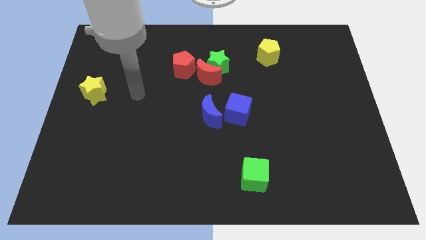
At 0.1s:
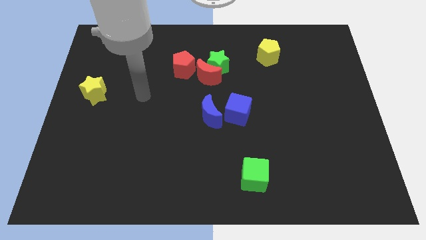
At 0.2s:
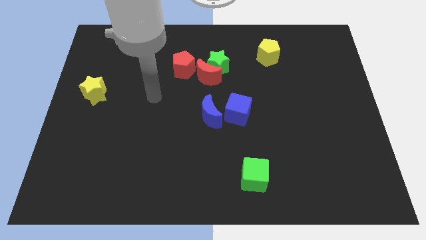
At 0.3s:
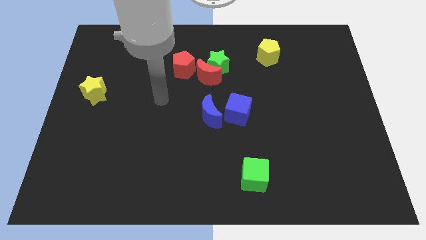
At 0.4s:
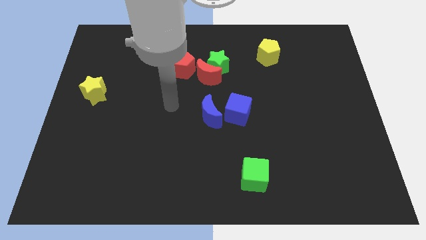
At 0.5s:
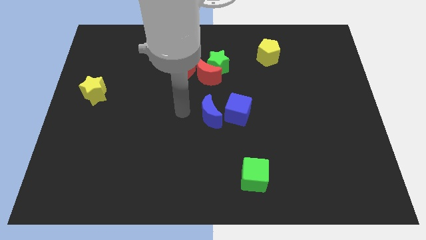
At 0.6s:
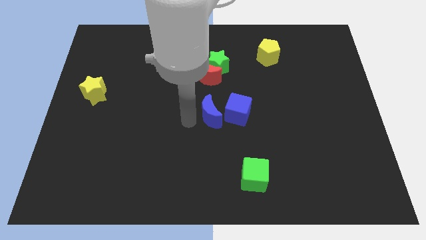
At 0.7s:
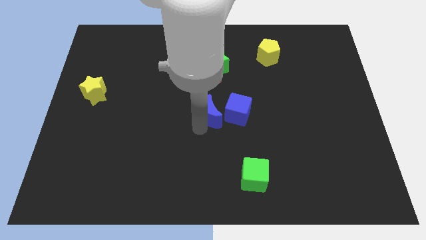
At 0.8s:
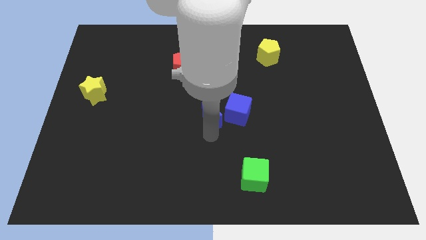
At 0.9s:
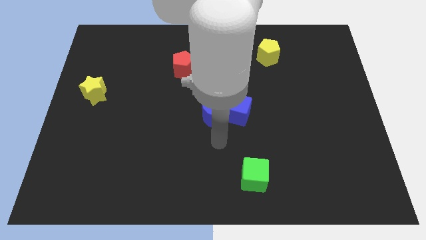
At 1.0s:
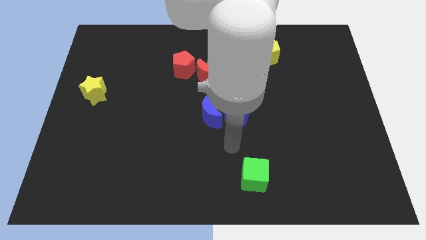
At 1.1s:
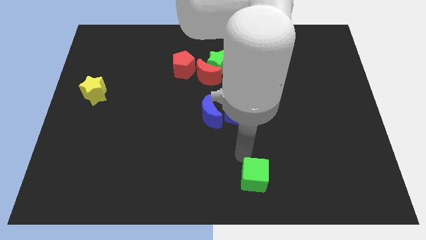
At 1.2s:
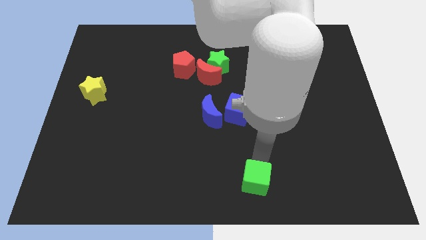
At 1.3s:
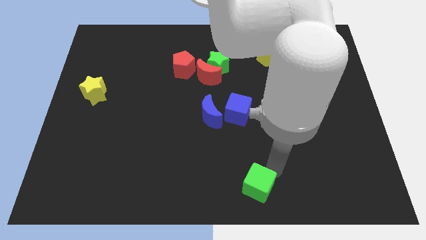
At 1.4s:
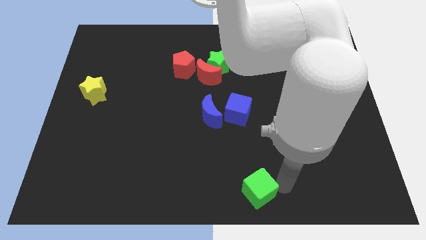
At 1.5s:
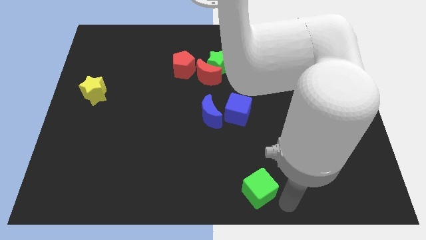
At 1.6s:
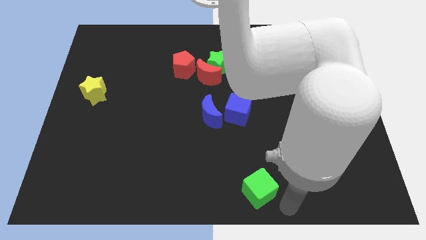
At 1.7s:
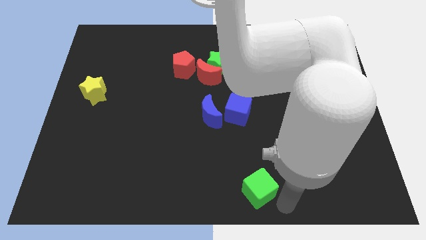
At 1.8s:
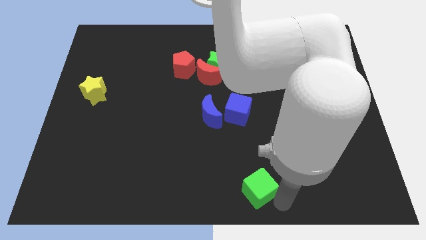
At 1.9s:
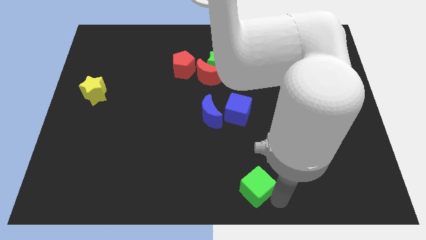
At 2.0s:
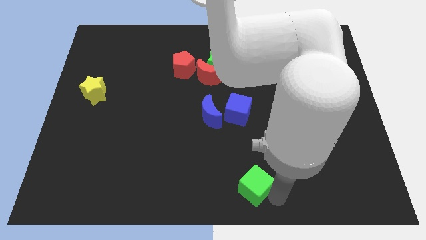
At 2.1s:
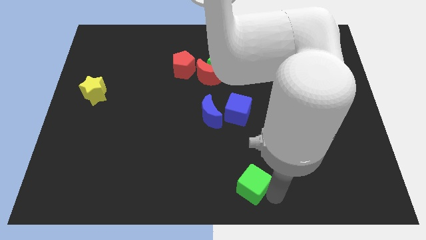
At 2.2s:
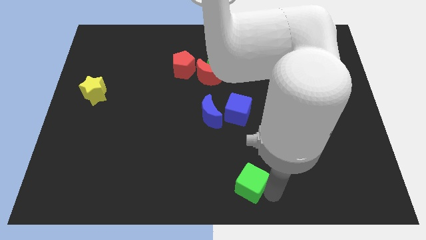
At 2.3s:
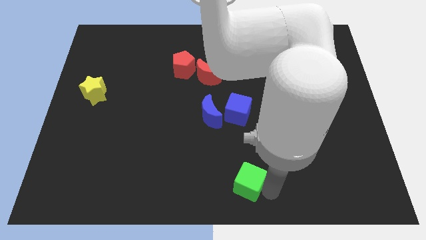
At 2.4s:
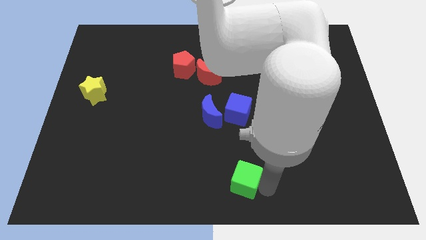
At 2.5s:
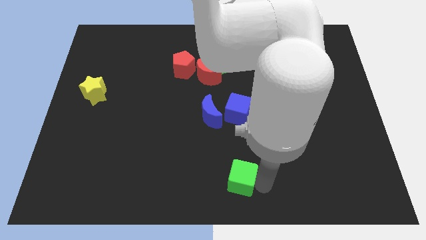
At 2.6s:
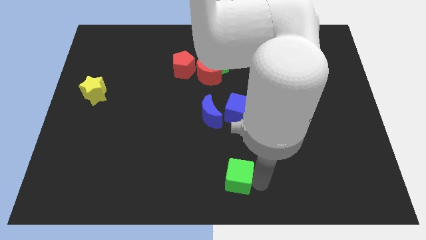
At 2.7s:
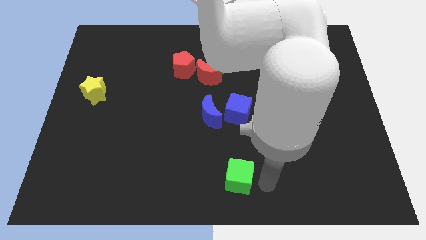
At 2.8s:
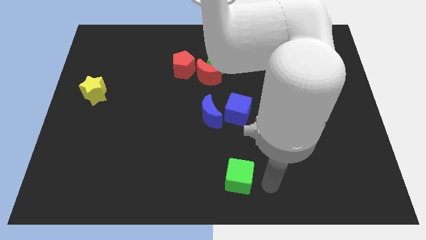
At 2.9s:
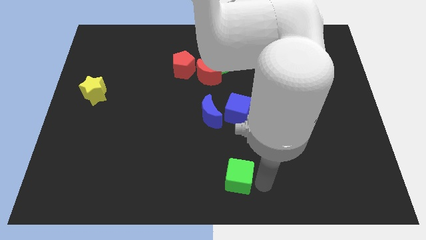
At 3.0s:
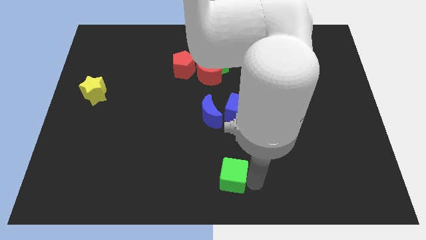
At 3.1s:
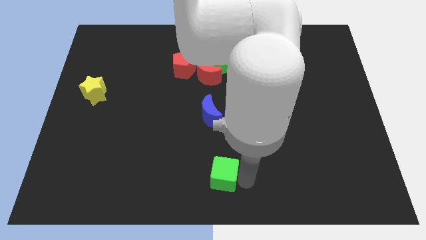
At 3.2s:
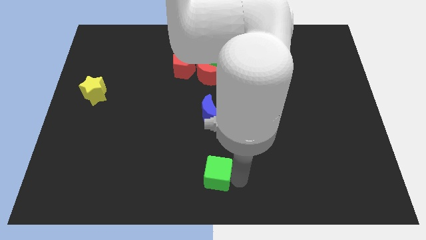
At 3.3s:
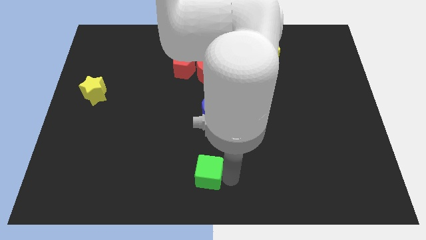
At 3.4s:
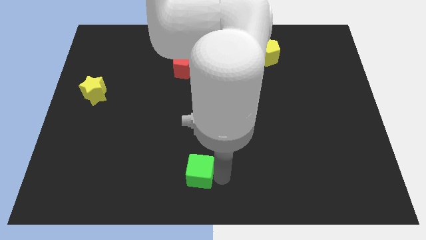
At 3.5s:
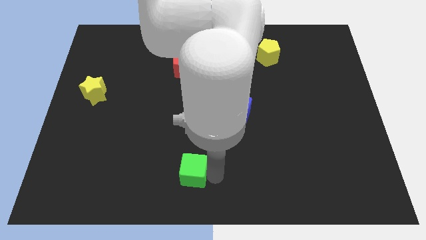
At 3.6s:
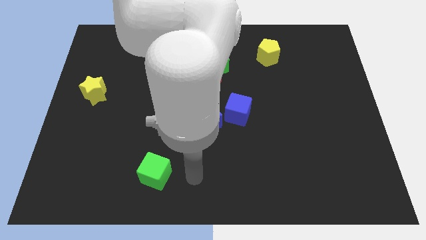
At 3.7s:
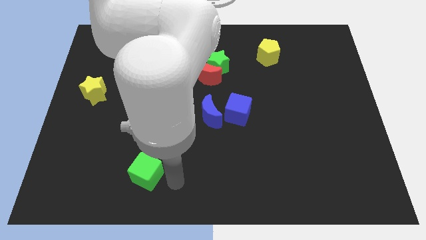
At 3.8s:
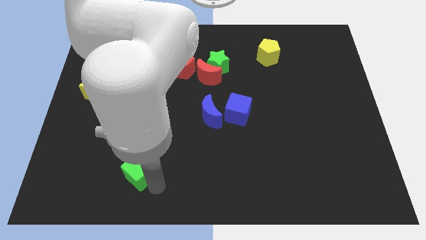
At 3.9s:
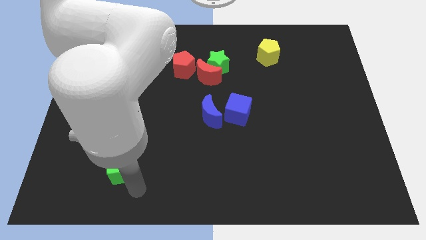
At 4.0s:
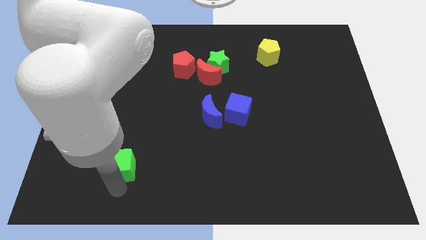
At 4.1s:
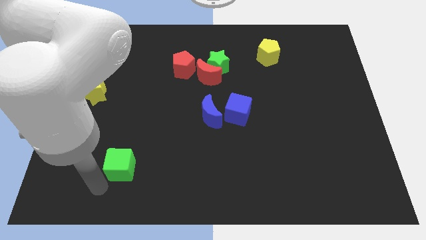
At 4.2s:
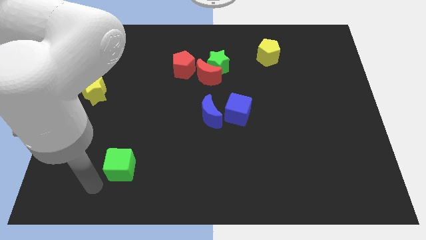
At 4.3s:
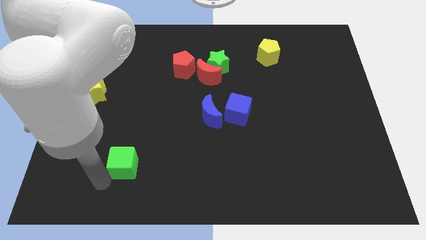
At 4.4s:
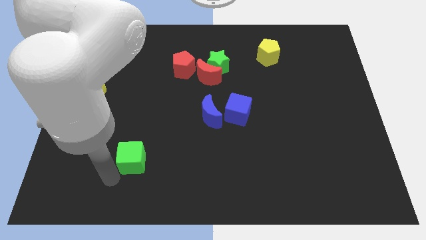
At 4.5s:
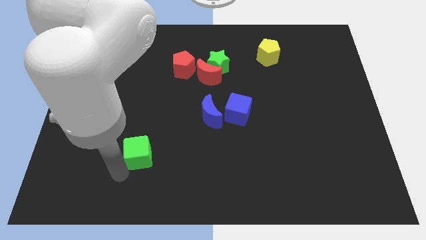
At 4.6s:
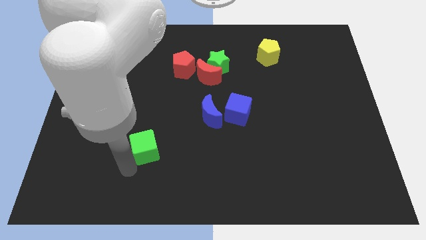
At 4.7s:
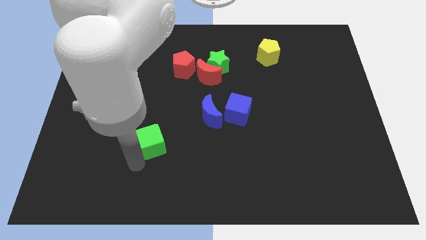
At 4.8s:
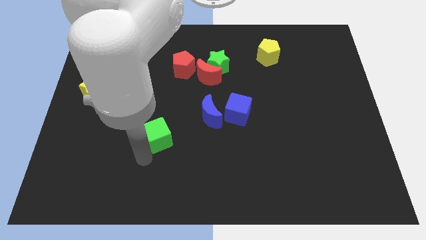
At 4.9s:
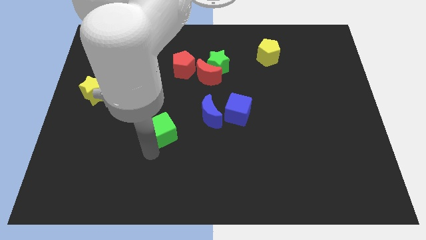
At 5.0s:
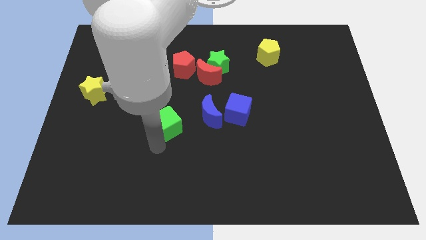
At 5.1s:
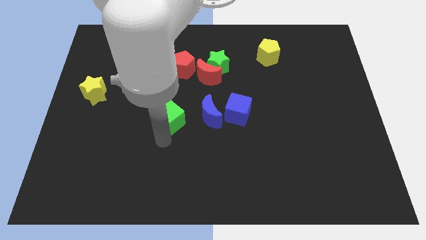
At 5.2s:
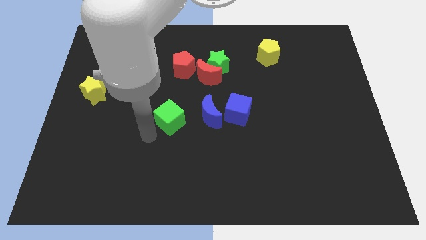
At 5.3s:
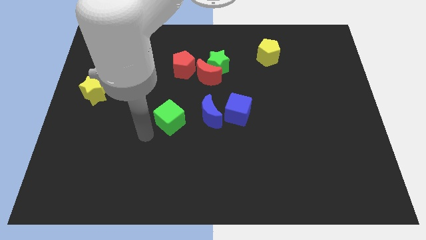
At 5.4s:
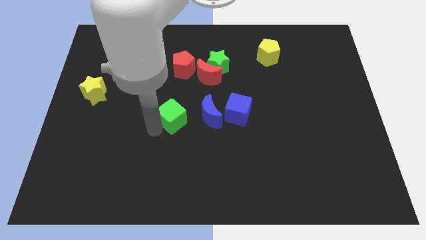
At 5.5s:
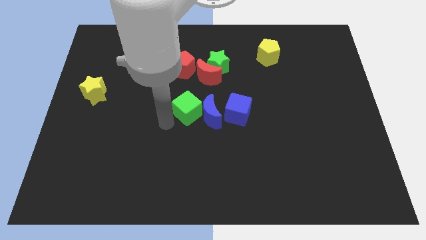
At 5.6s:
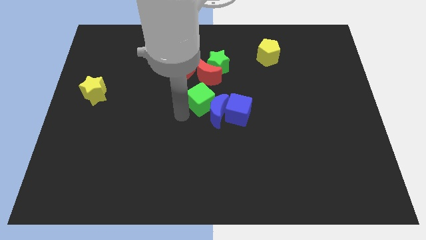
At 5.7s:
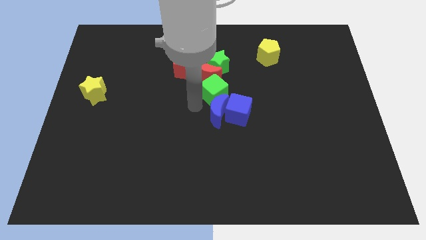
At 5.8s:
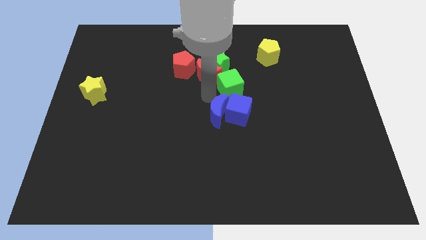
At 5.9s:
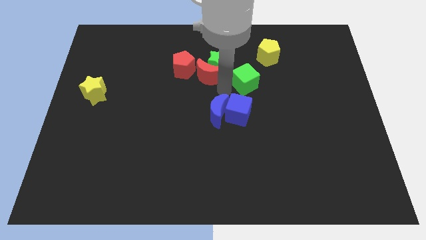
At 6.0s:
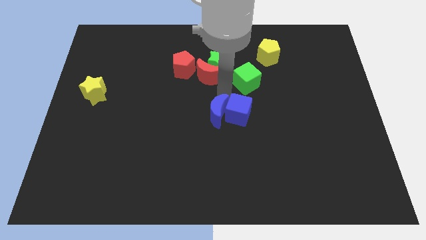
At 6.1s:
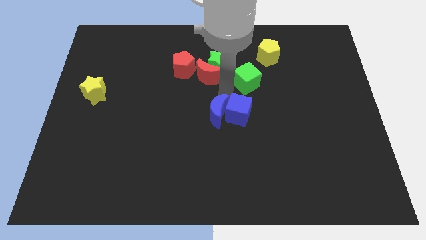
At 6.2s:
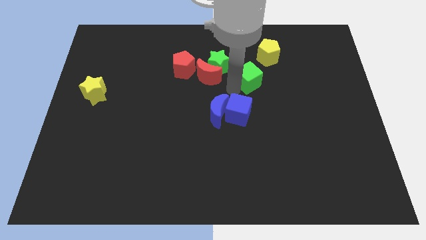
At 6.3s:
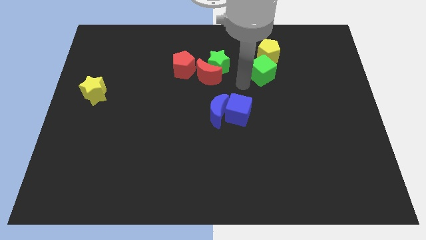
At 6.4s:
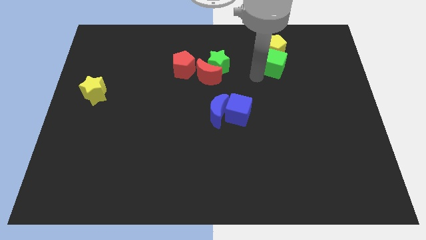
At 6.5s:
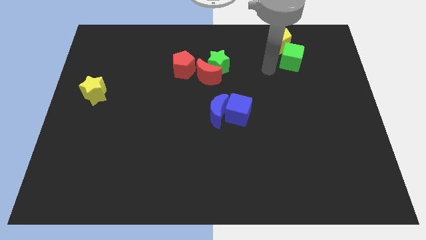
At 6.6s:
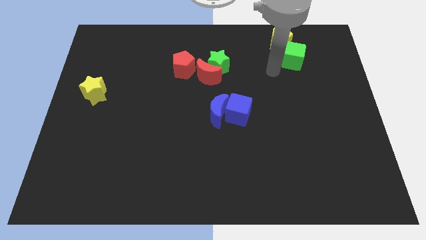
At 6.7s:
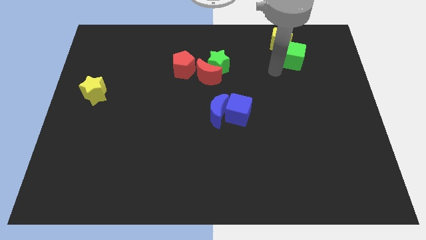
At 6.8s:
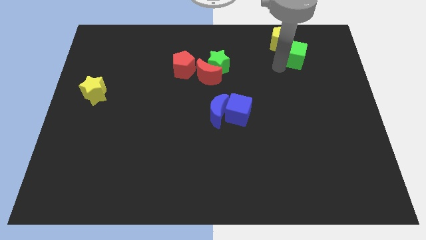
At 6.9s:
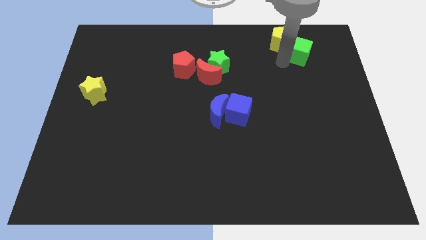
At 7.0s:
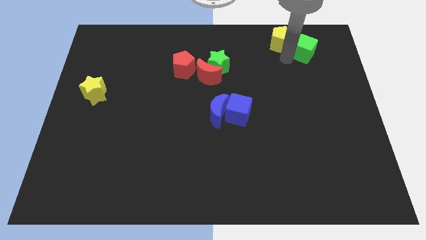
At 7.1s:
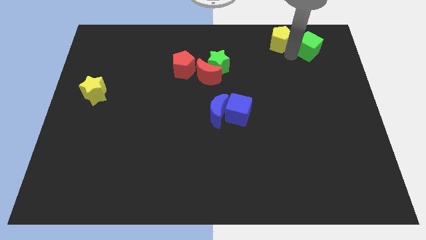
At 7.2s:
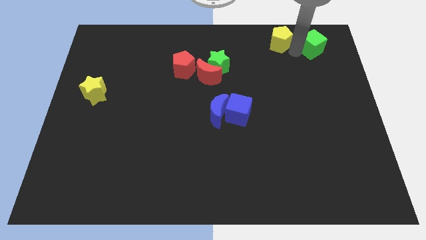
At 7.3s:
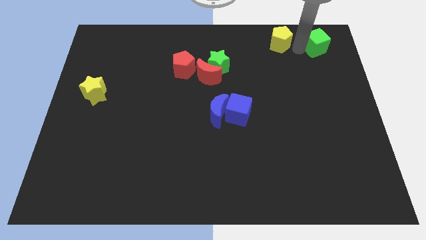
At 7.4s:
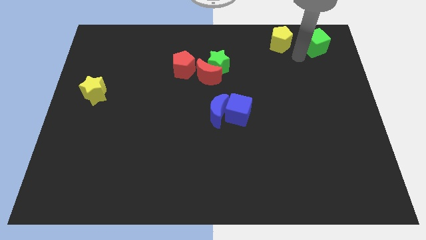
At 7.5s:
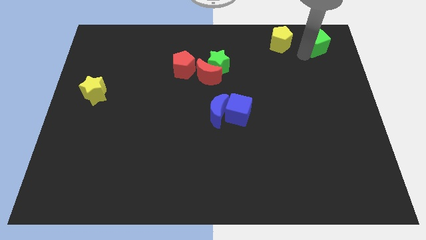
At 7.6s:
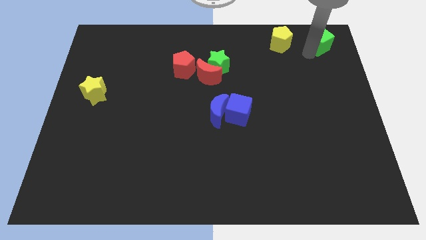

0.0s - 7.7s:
put the green cube to the top right corner
